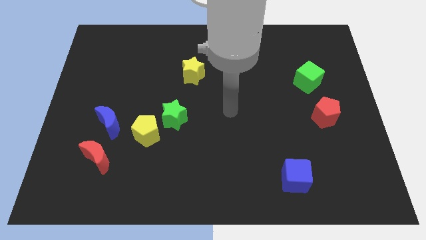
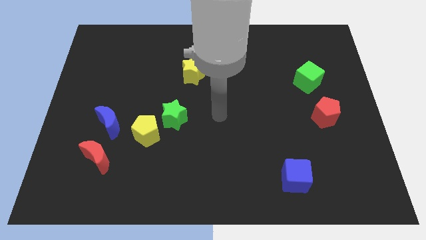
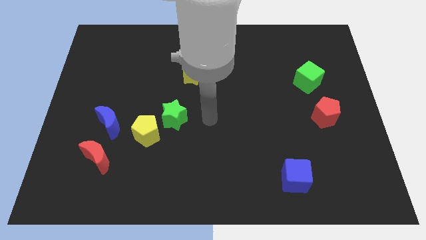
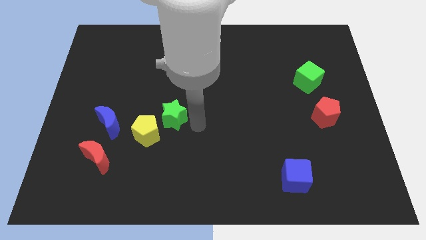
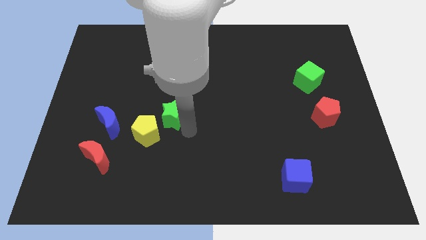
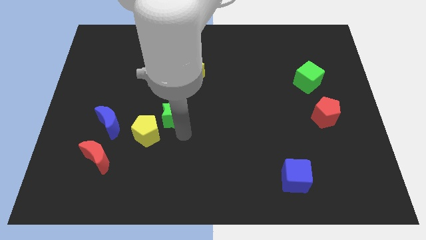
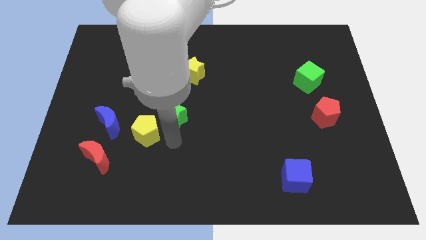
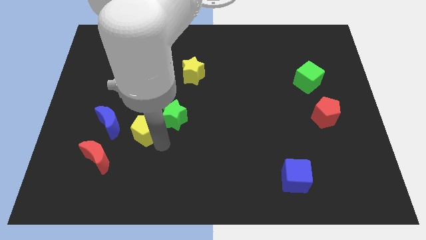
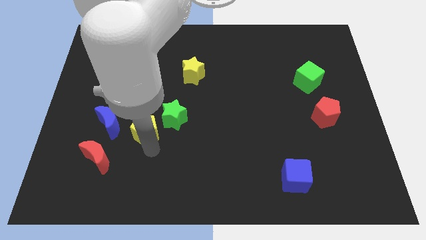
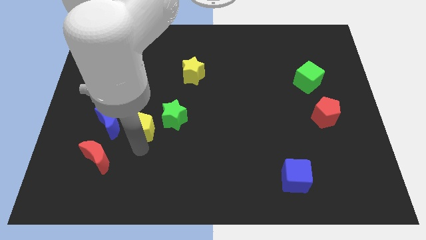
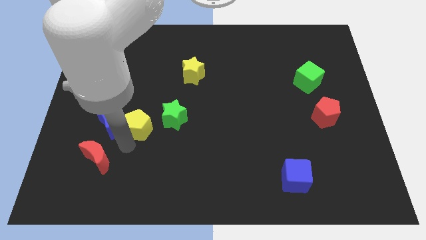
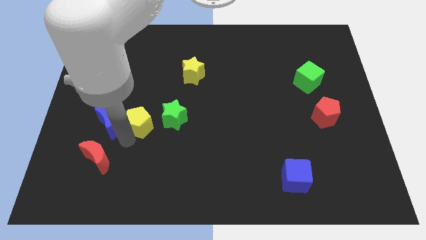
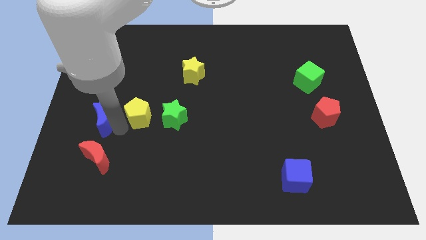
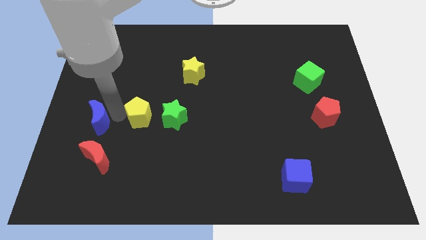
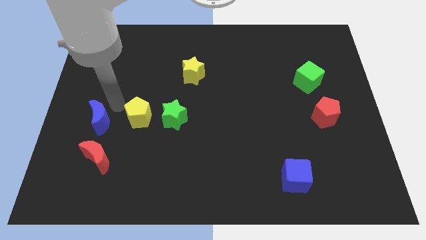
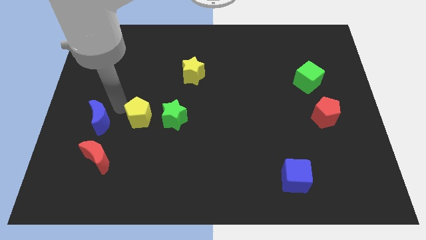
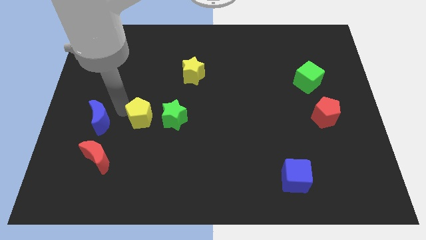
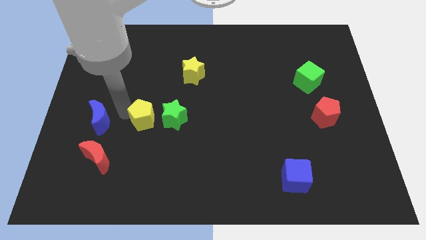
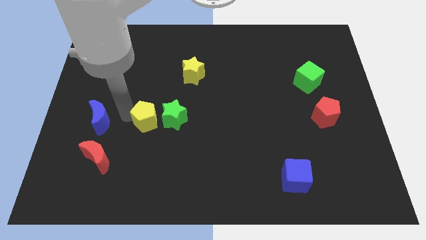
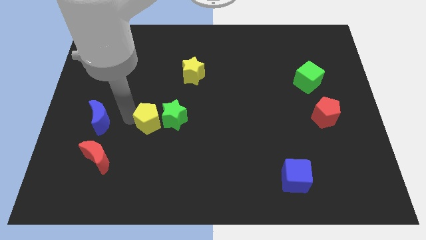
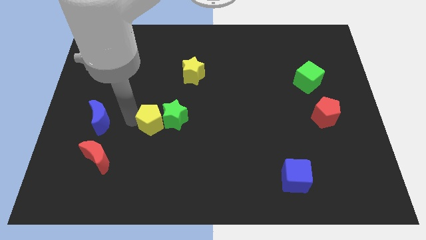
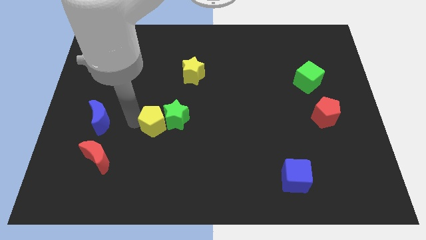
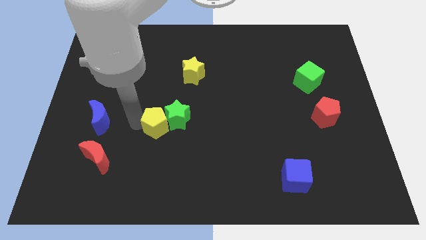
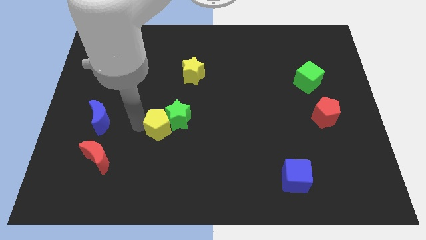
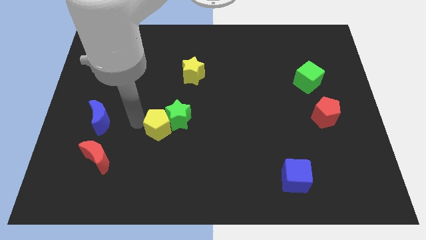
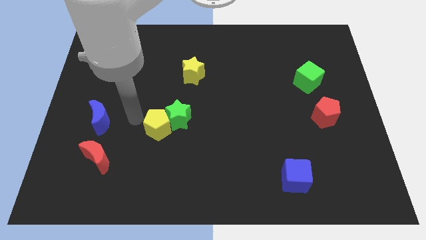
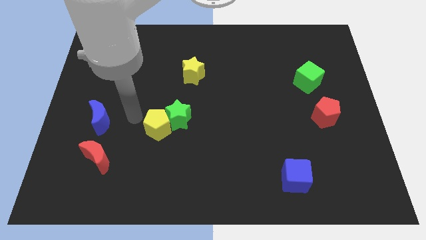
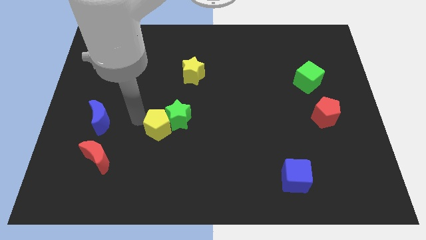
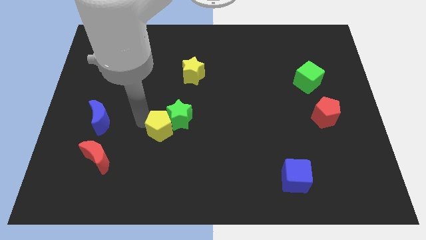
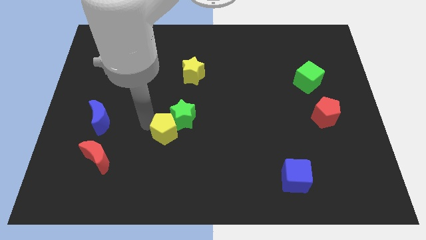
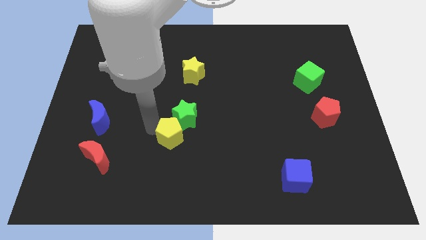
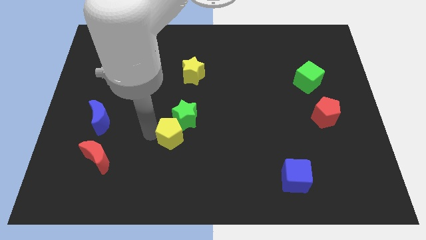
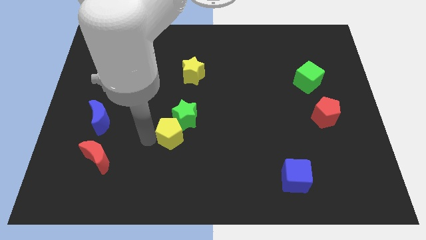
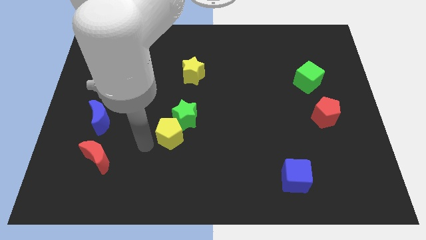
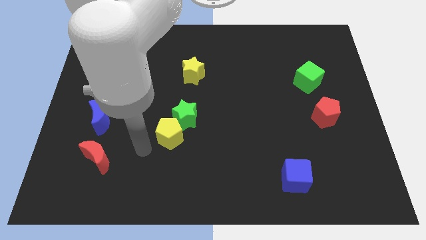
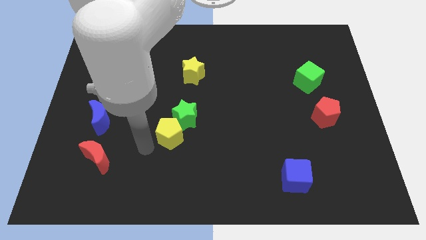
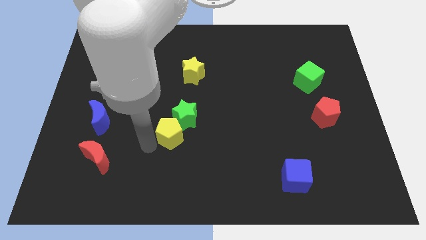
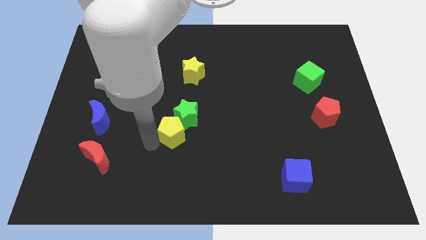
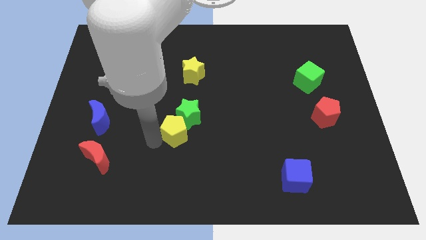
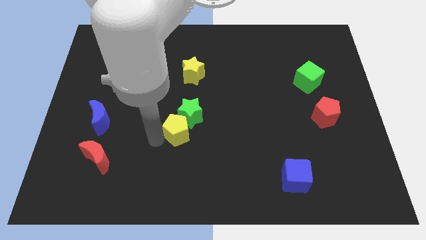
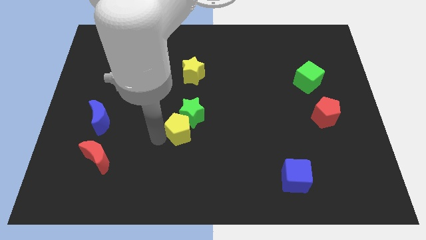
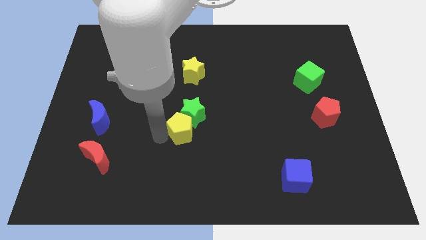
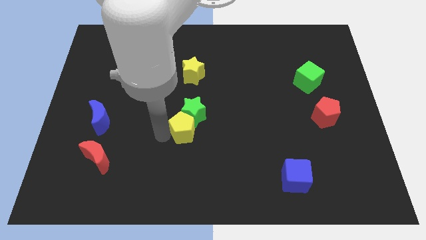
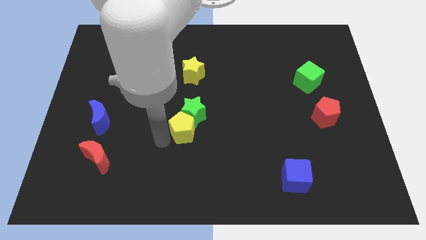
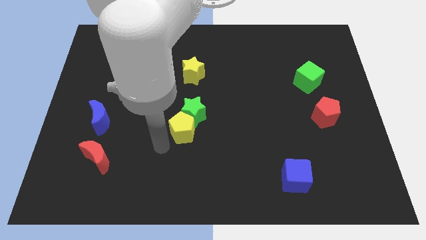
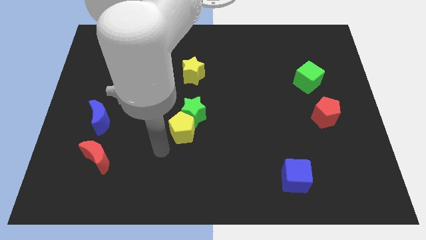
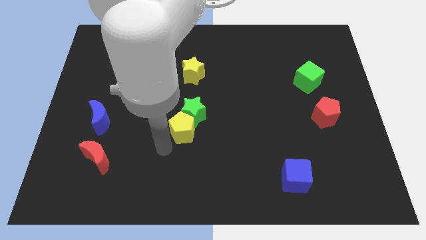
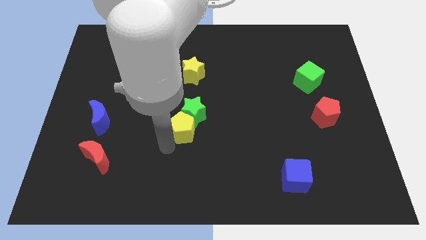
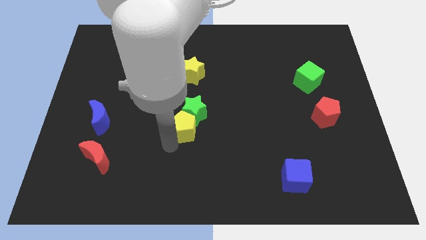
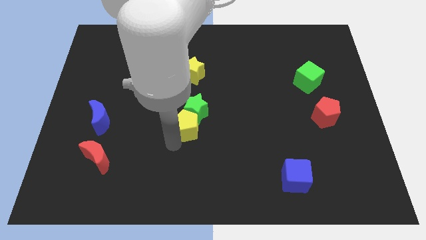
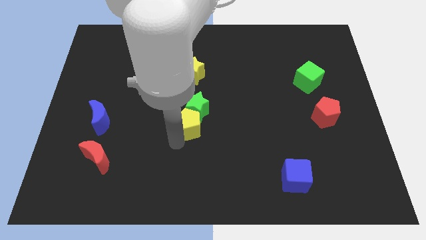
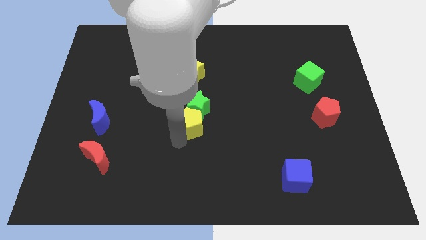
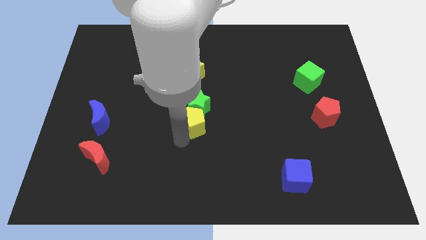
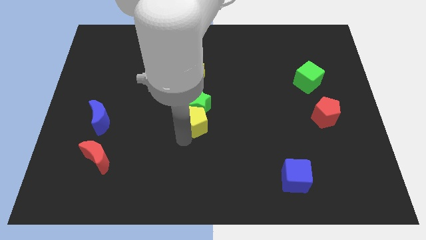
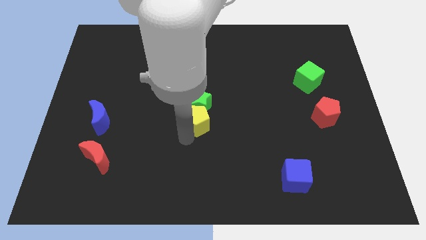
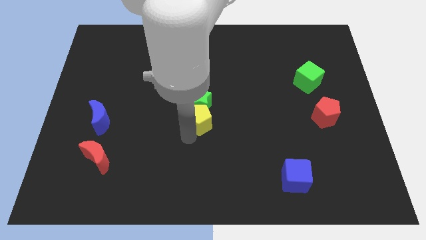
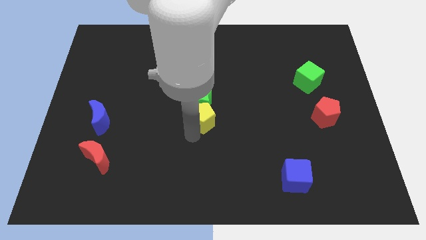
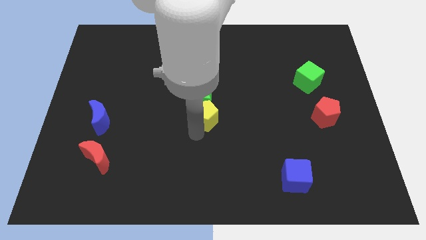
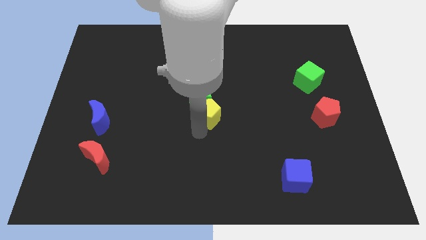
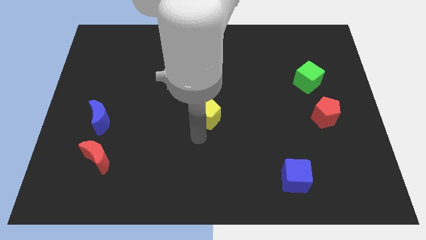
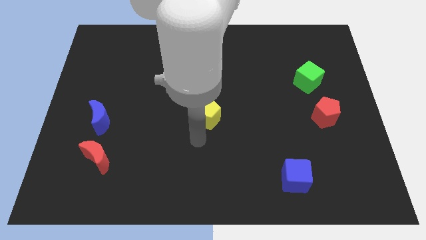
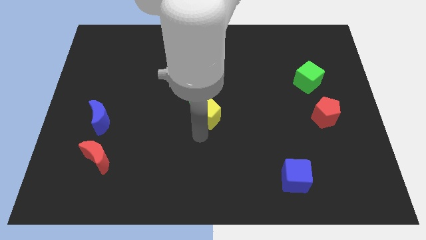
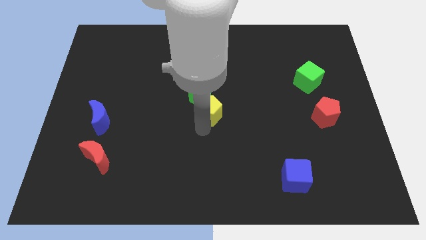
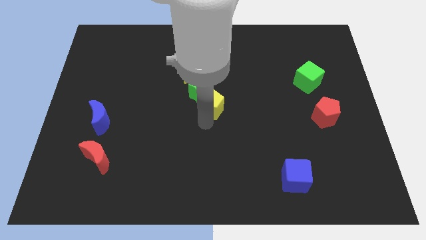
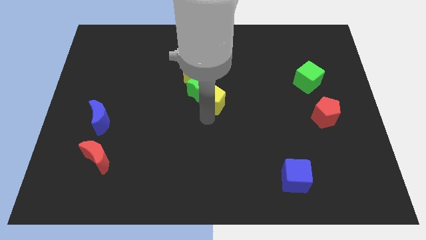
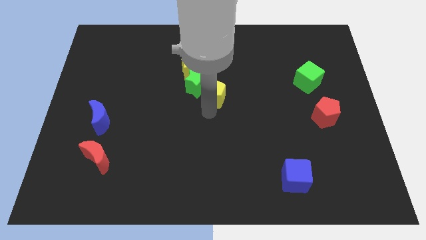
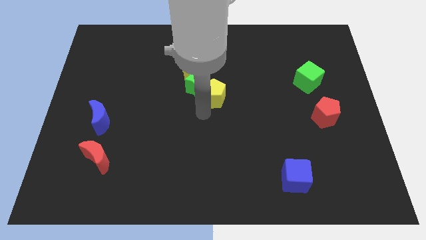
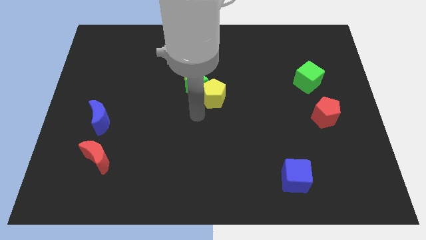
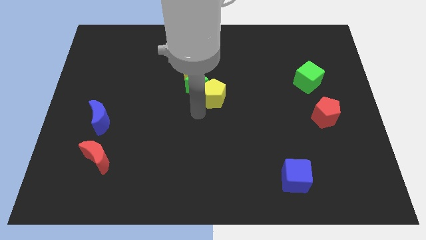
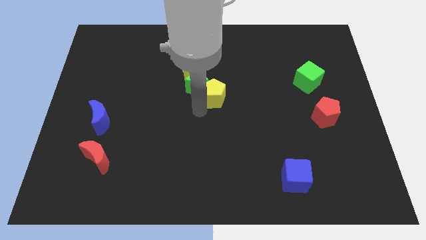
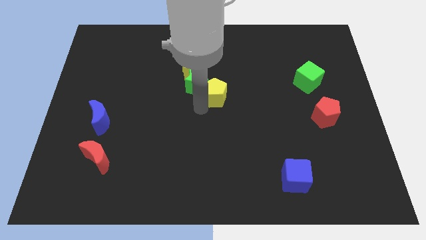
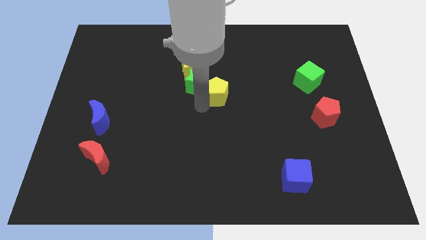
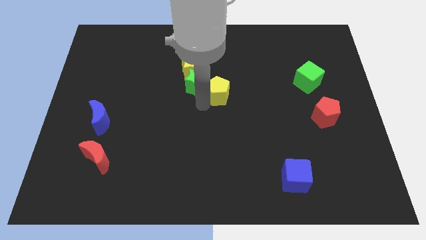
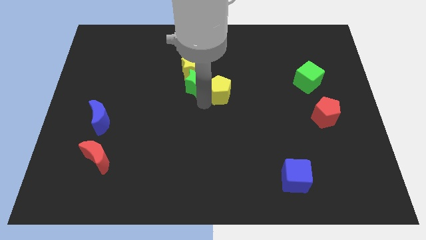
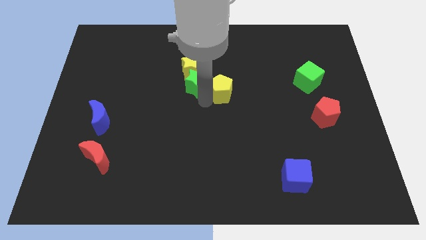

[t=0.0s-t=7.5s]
slide the yellow pentagon upwards and then to the right

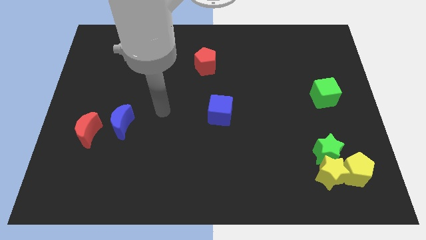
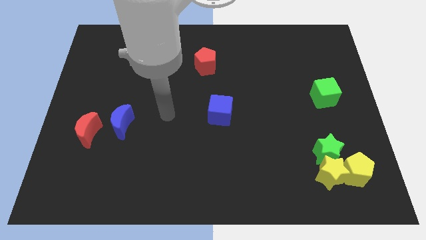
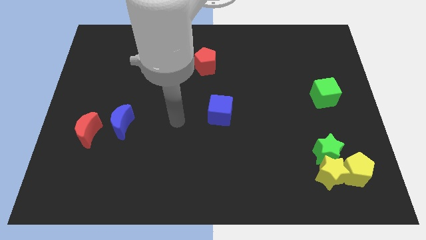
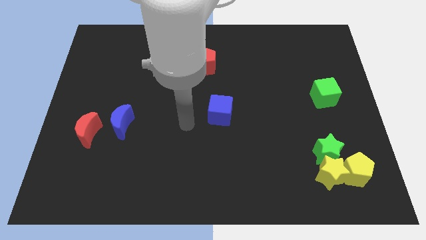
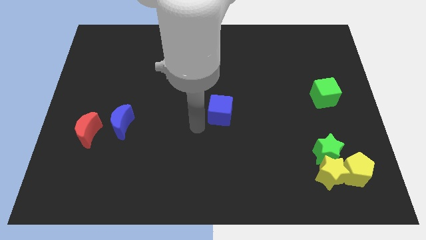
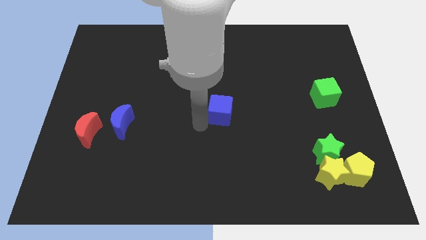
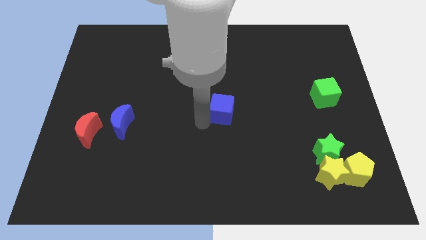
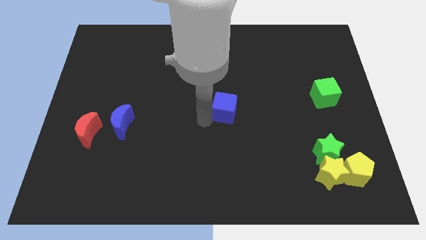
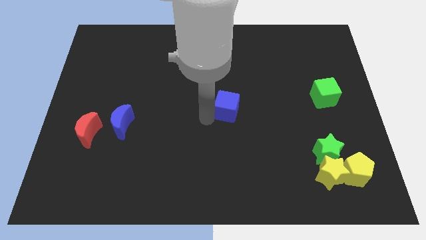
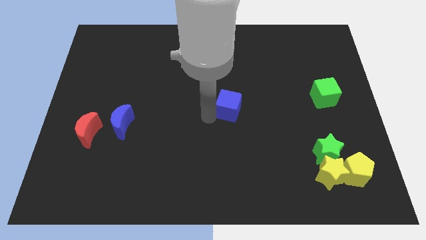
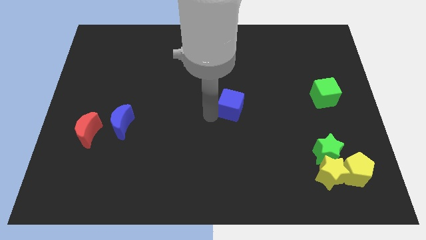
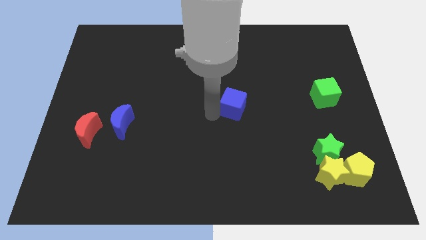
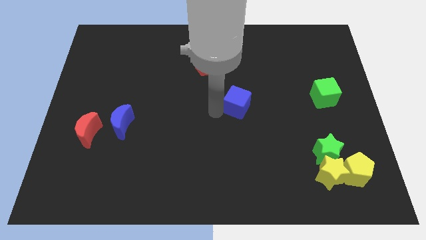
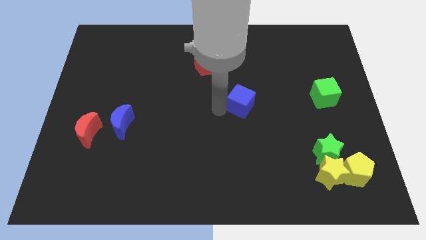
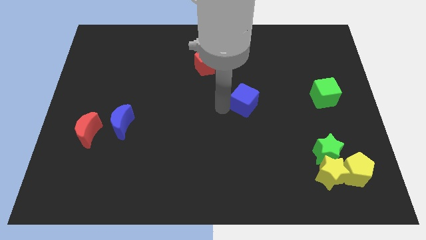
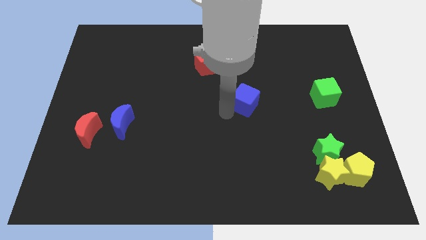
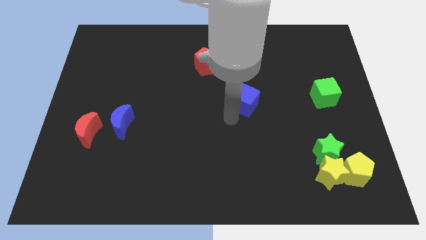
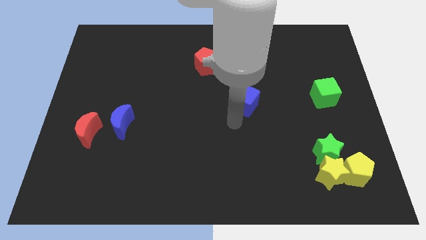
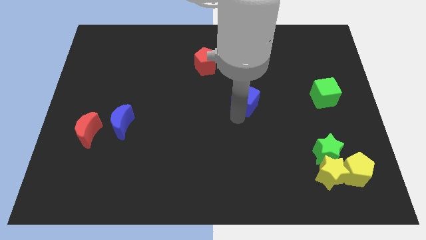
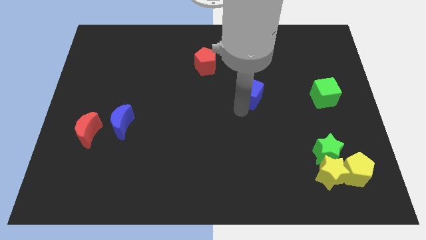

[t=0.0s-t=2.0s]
move the blue cube a little bit up and to the right diagonally
